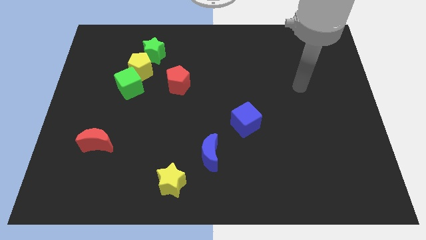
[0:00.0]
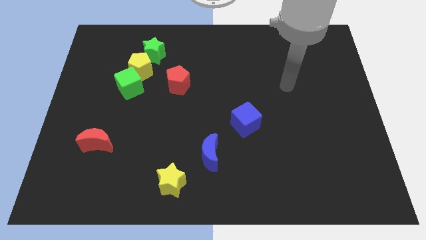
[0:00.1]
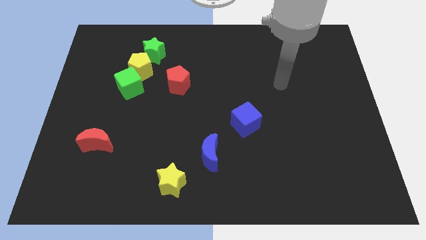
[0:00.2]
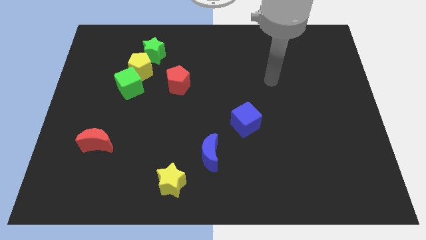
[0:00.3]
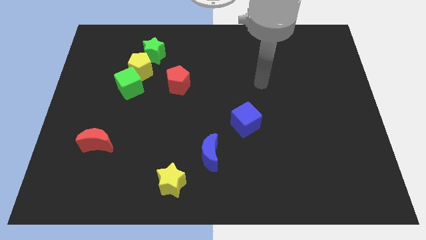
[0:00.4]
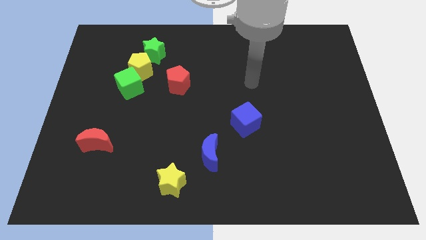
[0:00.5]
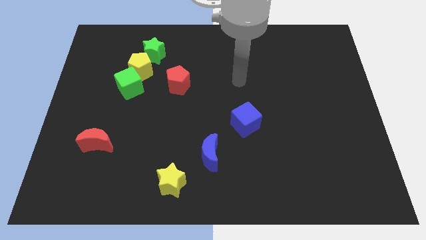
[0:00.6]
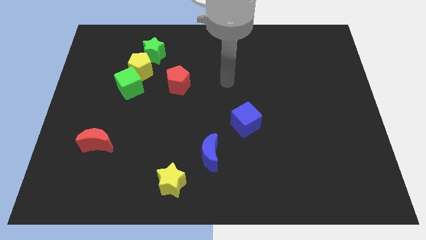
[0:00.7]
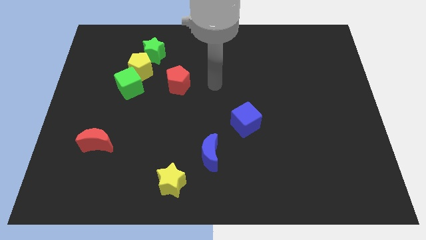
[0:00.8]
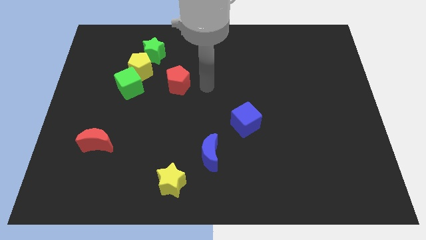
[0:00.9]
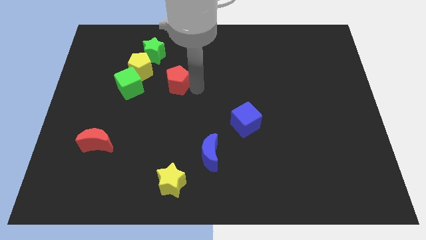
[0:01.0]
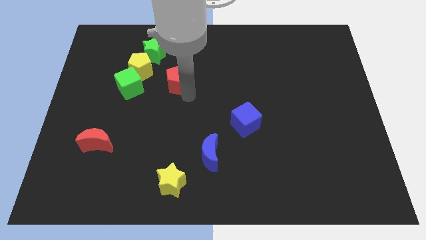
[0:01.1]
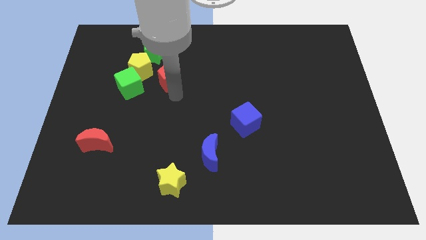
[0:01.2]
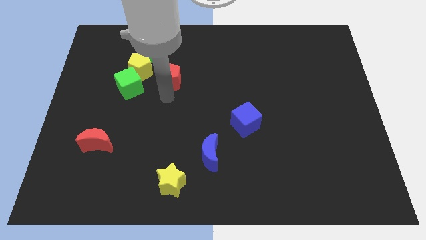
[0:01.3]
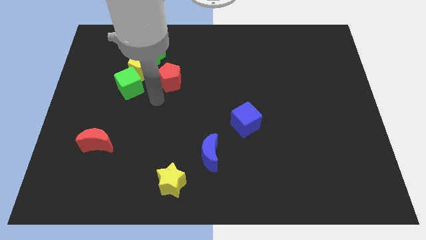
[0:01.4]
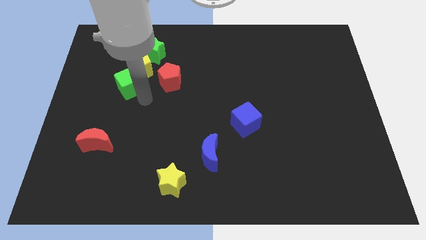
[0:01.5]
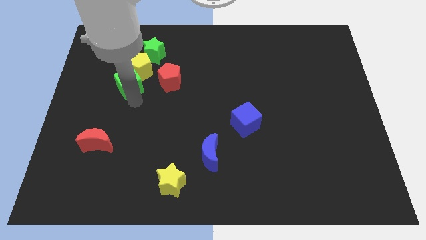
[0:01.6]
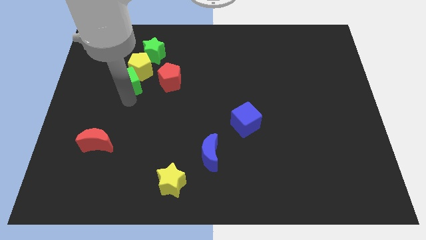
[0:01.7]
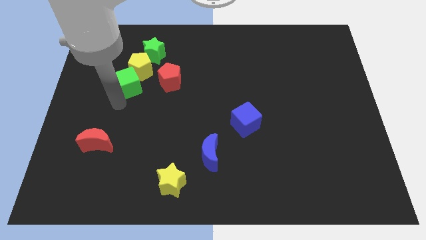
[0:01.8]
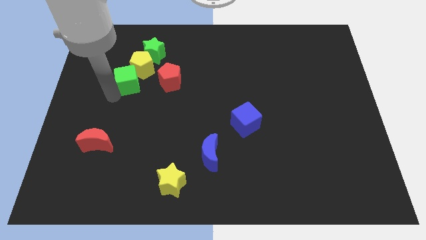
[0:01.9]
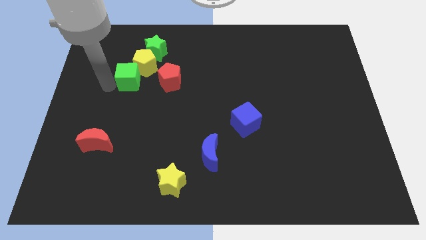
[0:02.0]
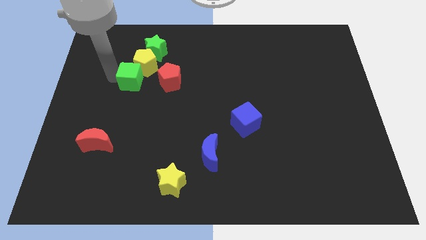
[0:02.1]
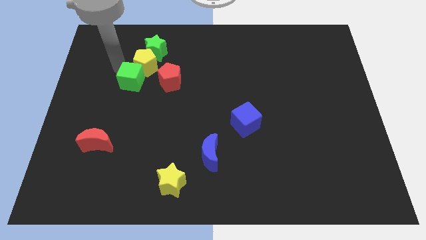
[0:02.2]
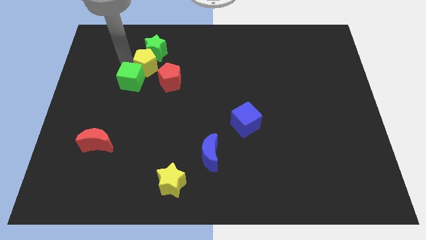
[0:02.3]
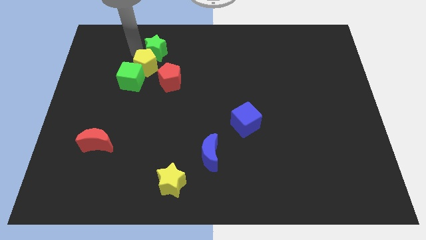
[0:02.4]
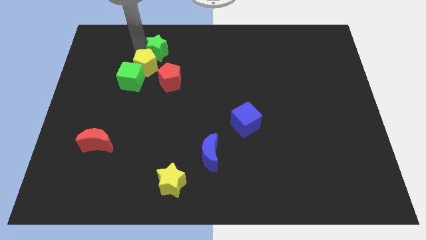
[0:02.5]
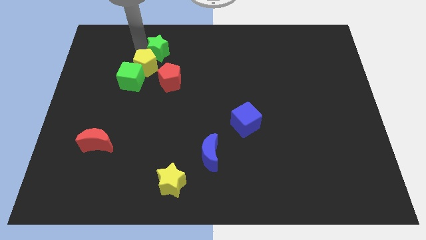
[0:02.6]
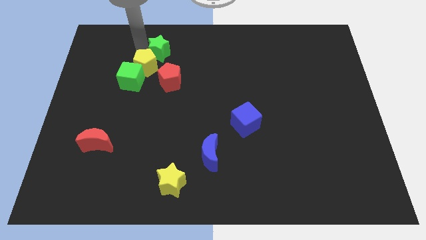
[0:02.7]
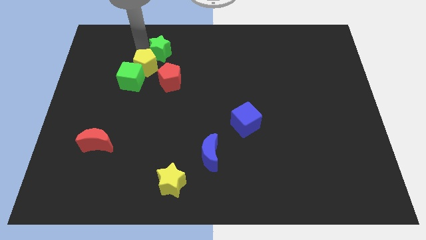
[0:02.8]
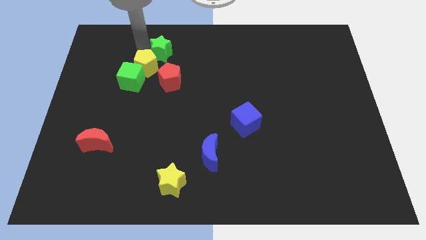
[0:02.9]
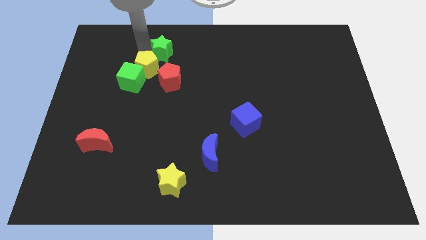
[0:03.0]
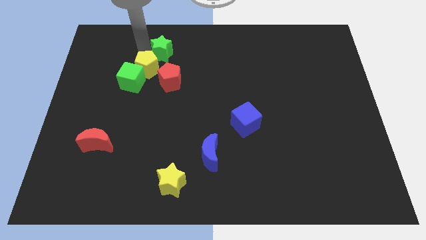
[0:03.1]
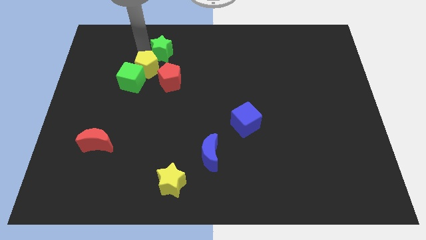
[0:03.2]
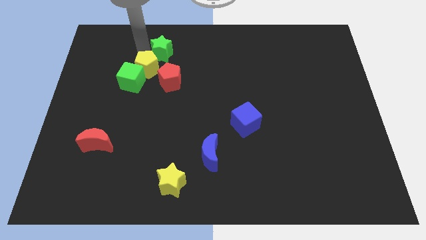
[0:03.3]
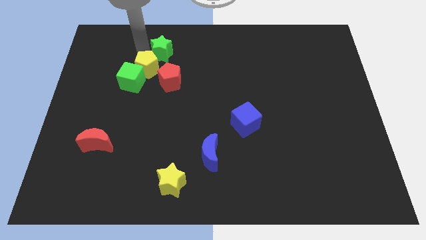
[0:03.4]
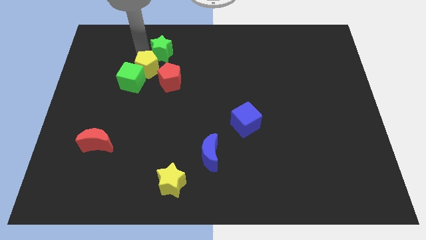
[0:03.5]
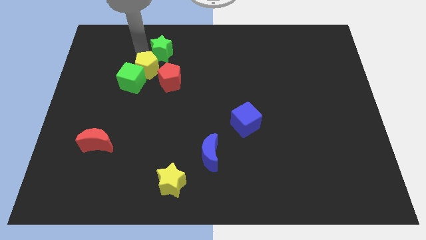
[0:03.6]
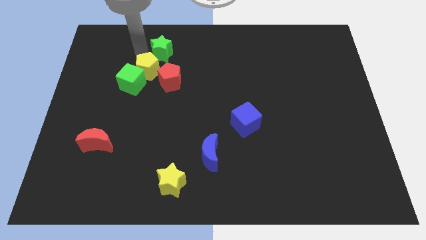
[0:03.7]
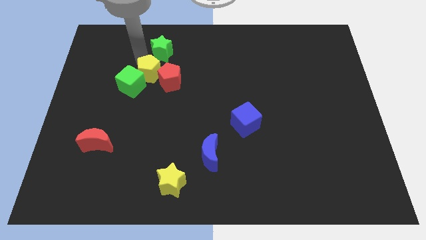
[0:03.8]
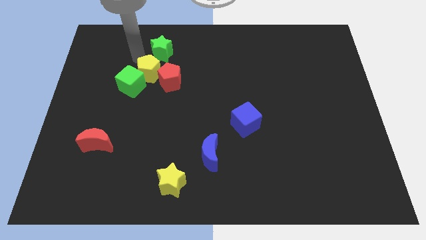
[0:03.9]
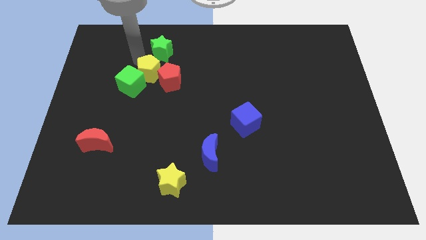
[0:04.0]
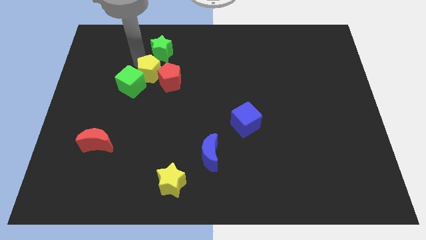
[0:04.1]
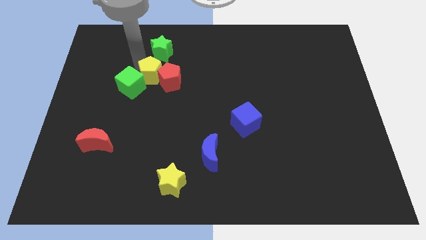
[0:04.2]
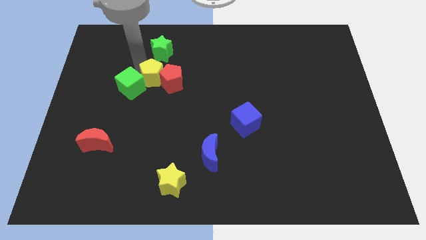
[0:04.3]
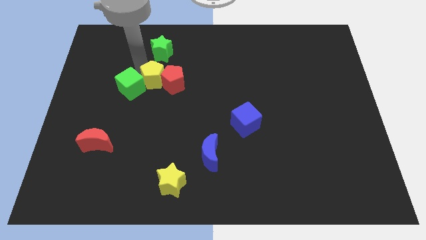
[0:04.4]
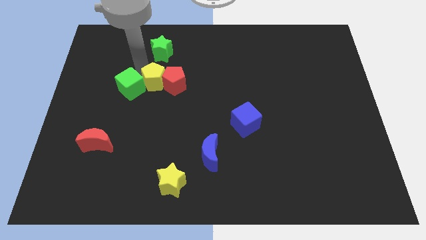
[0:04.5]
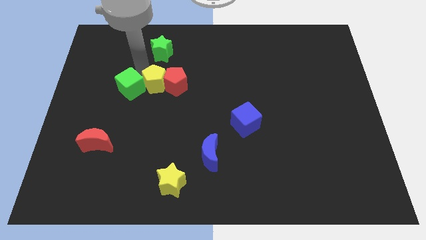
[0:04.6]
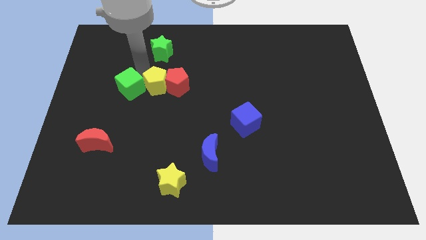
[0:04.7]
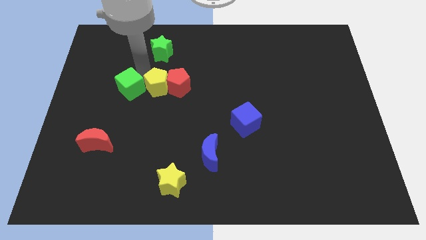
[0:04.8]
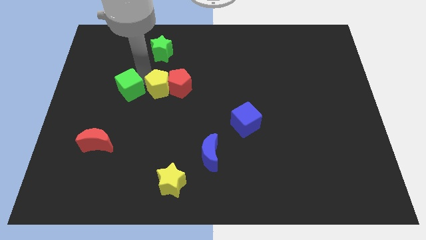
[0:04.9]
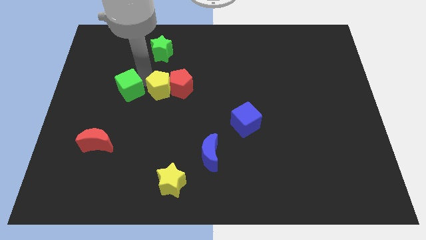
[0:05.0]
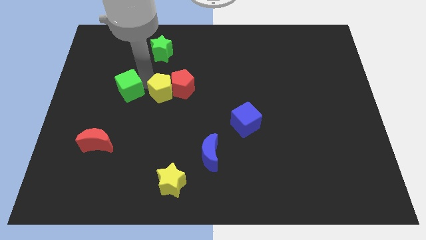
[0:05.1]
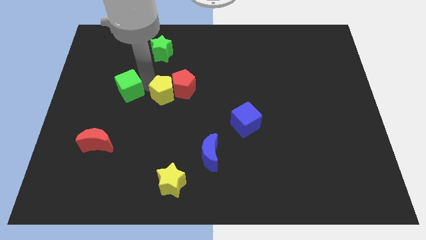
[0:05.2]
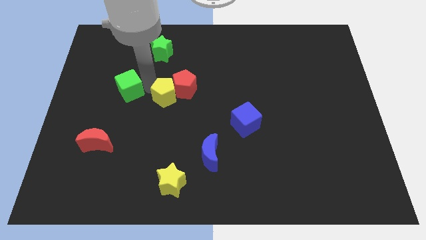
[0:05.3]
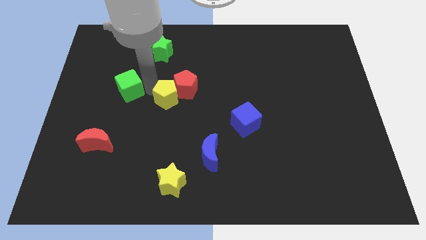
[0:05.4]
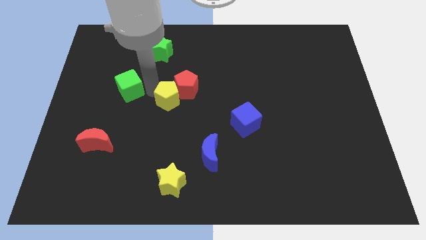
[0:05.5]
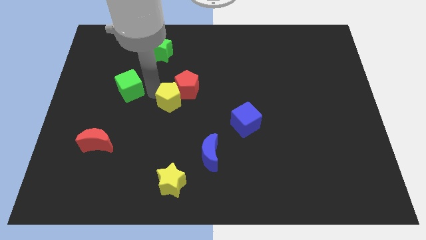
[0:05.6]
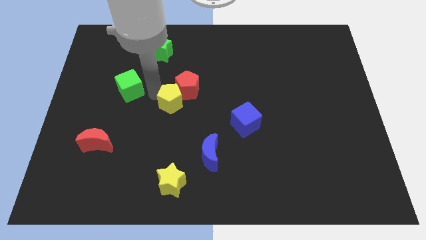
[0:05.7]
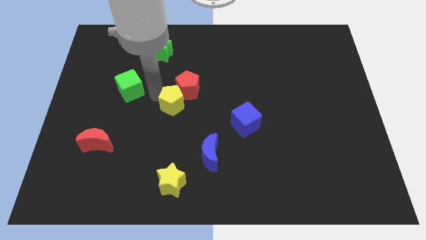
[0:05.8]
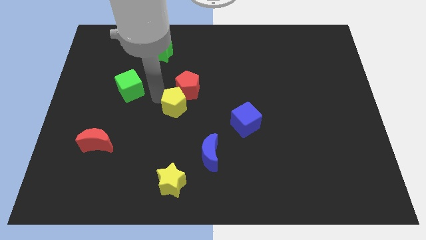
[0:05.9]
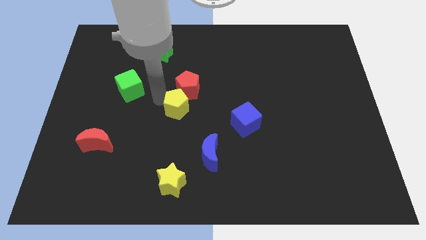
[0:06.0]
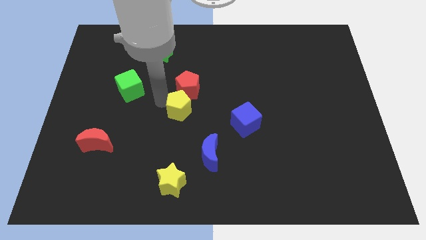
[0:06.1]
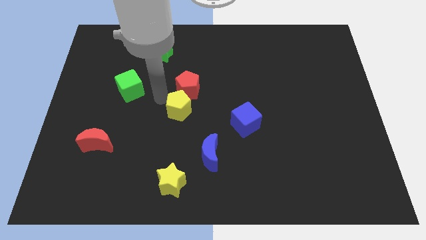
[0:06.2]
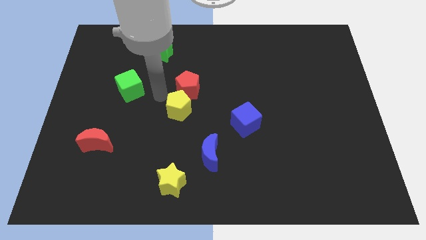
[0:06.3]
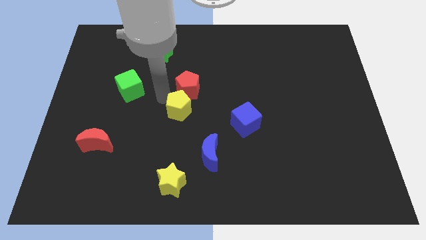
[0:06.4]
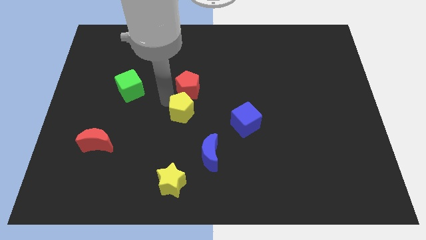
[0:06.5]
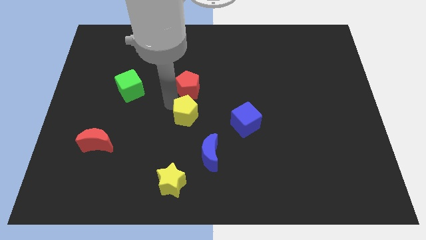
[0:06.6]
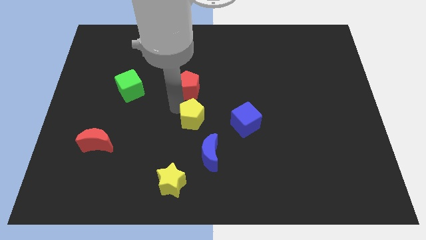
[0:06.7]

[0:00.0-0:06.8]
move the yellow pentagon diagonally downwards and right

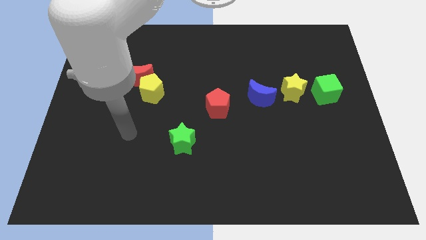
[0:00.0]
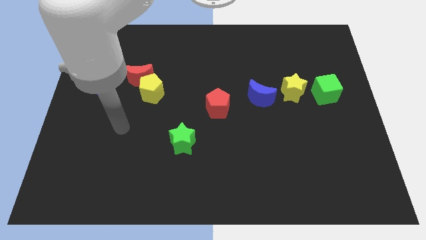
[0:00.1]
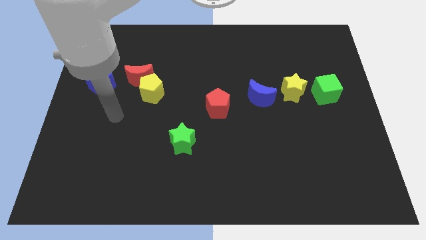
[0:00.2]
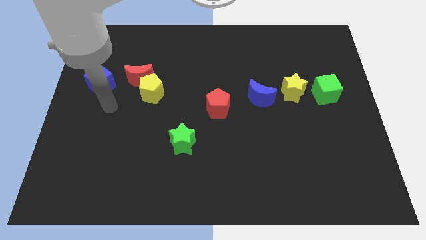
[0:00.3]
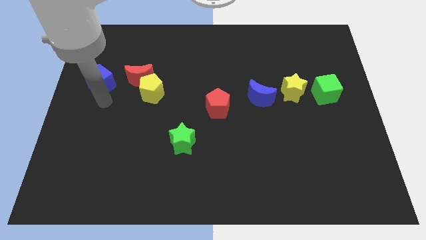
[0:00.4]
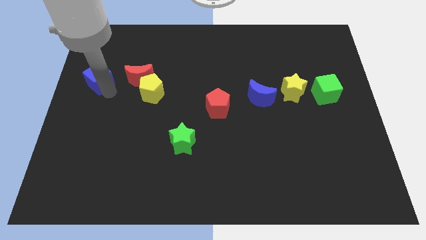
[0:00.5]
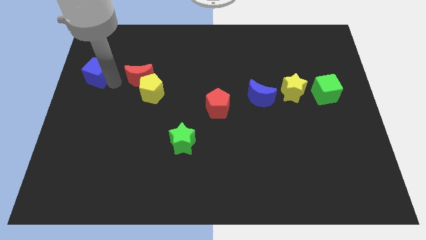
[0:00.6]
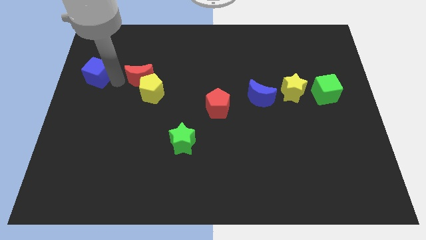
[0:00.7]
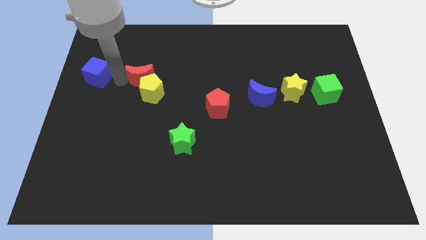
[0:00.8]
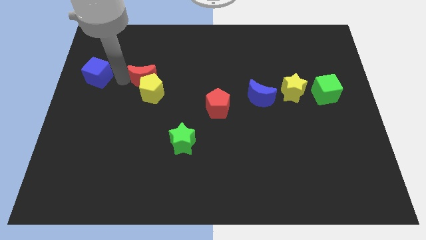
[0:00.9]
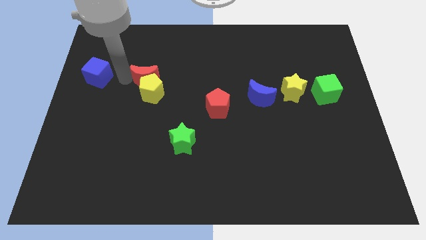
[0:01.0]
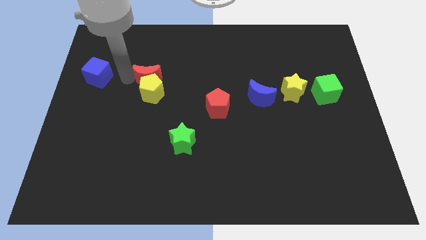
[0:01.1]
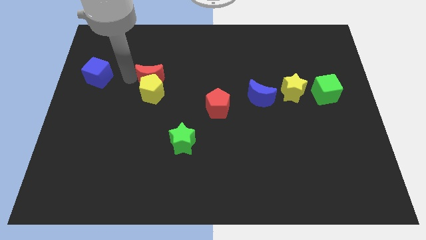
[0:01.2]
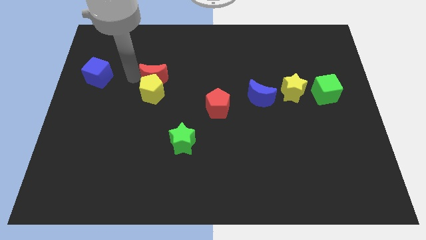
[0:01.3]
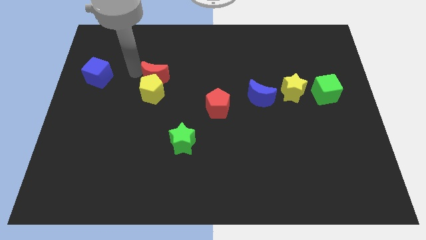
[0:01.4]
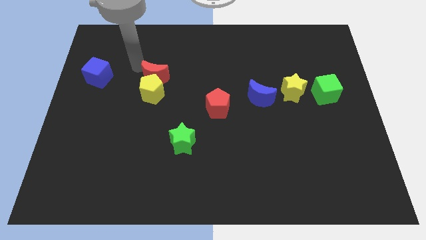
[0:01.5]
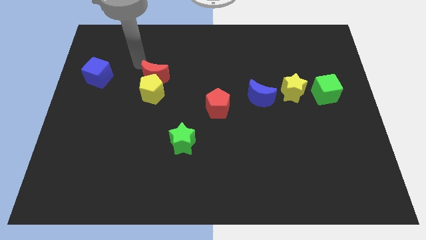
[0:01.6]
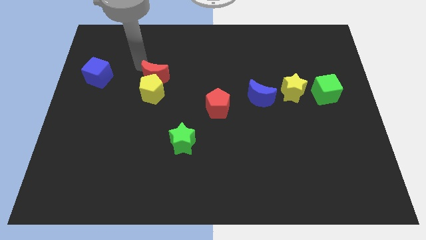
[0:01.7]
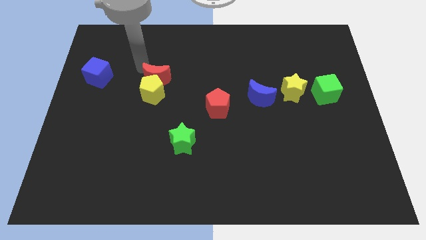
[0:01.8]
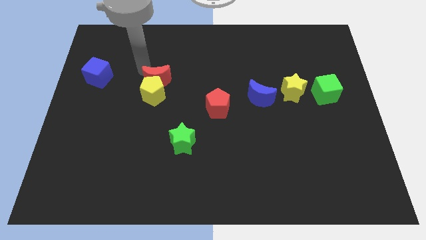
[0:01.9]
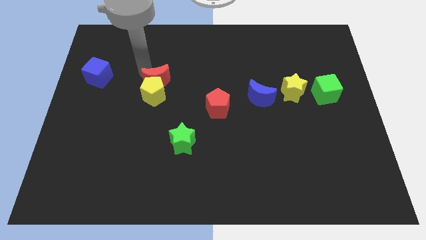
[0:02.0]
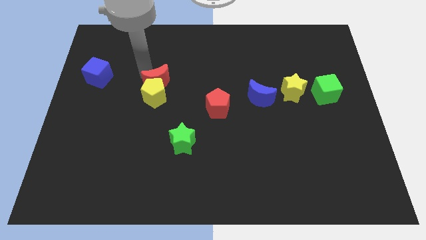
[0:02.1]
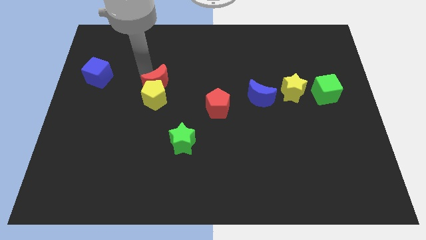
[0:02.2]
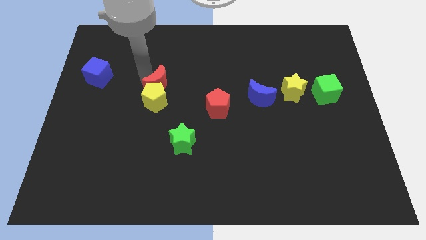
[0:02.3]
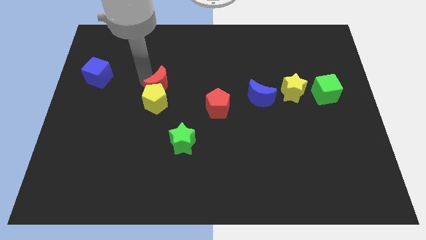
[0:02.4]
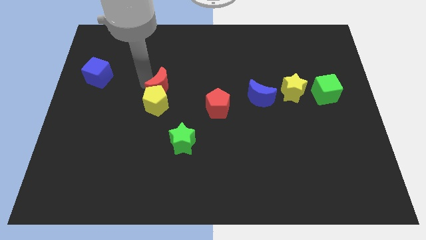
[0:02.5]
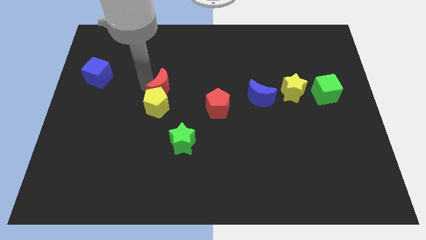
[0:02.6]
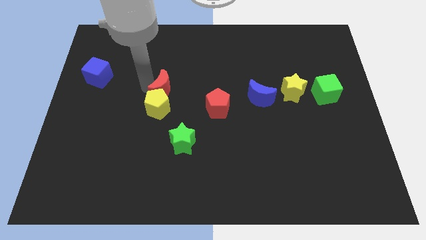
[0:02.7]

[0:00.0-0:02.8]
push the red moon a little bit down and then right
